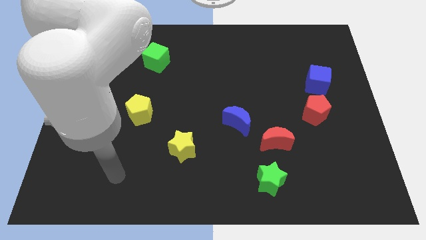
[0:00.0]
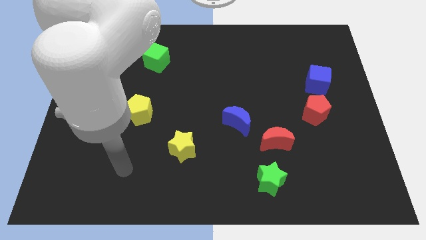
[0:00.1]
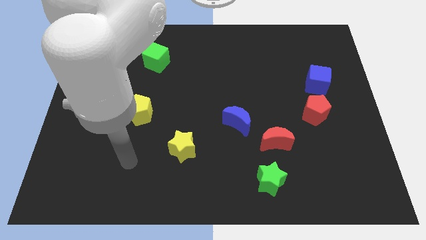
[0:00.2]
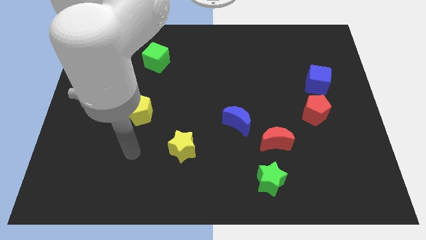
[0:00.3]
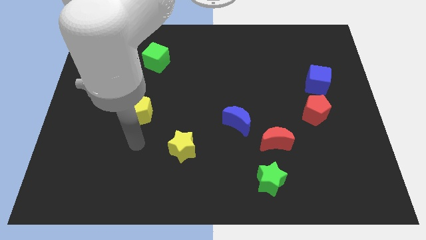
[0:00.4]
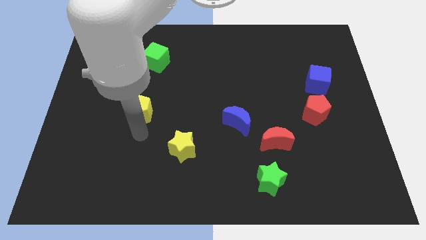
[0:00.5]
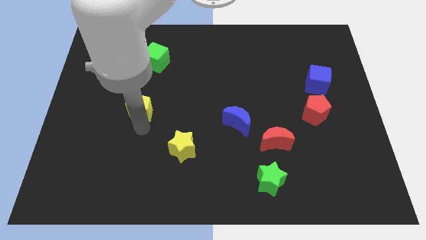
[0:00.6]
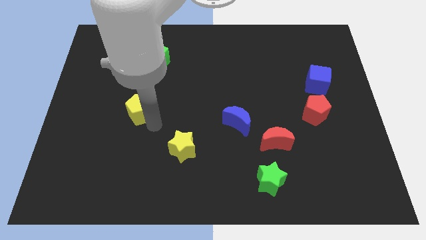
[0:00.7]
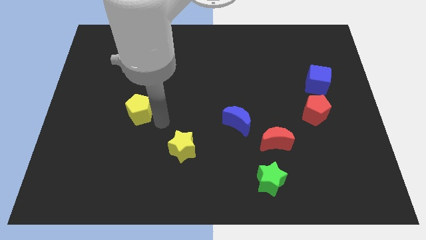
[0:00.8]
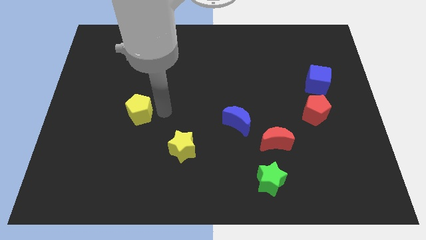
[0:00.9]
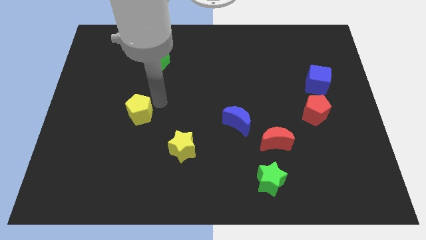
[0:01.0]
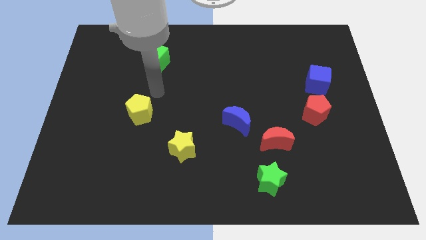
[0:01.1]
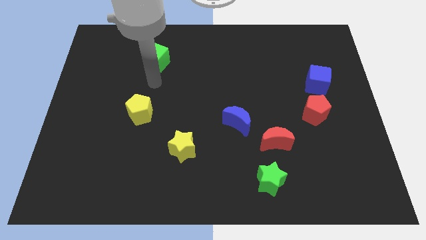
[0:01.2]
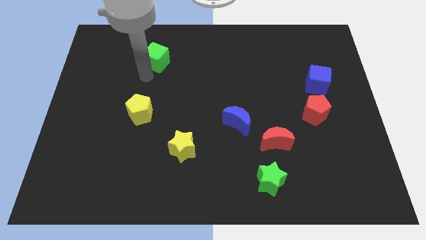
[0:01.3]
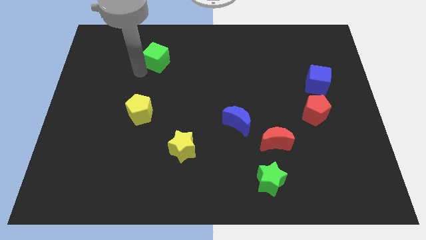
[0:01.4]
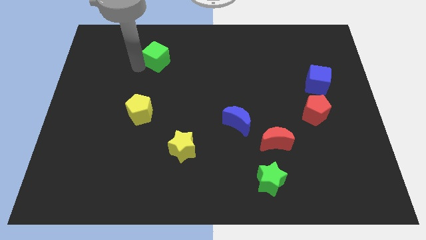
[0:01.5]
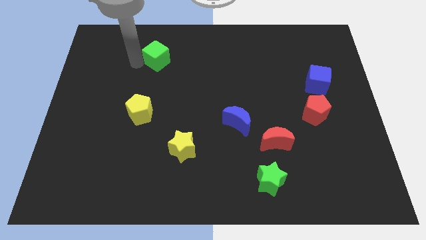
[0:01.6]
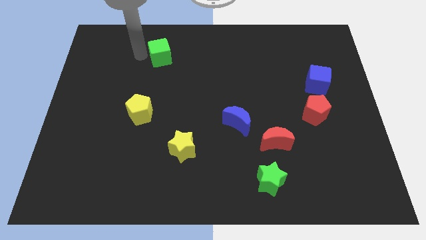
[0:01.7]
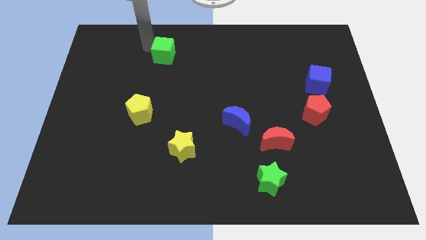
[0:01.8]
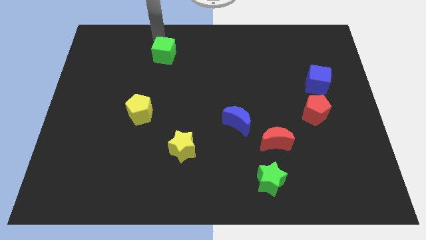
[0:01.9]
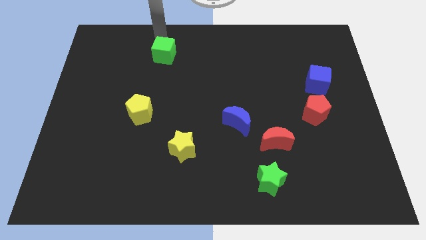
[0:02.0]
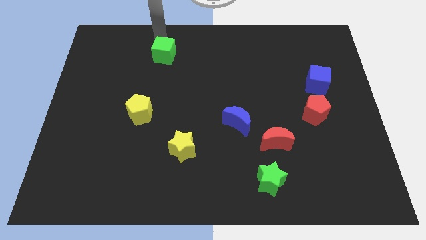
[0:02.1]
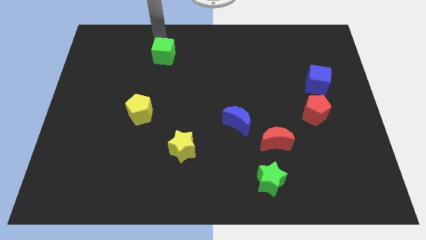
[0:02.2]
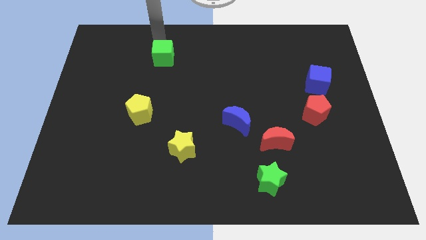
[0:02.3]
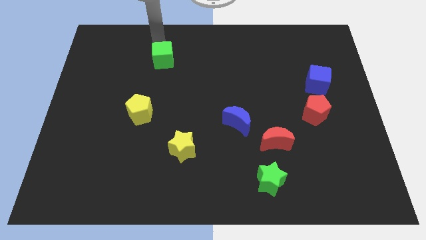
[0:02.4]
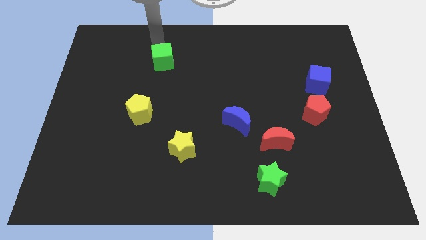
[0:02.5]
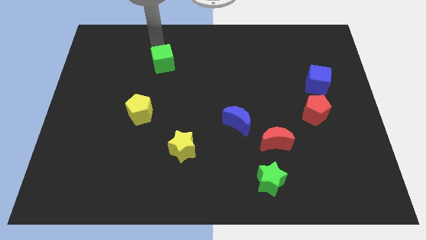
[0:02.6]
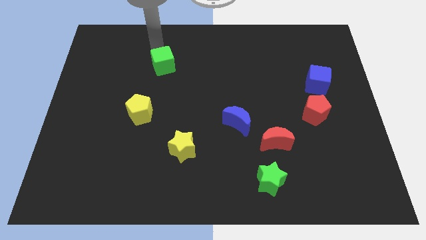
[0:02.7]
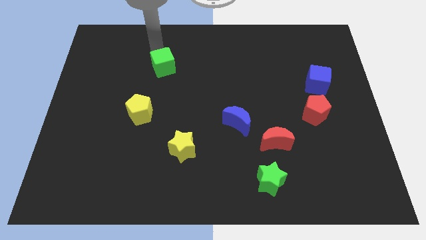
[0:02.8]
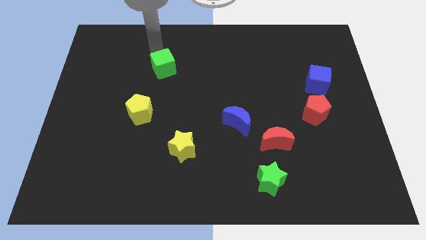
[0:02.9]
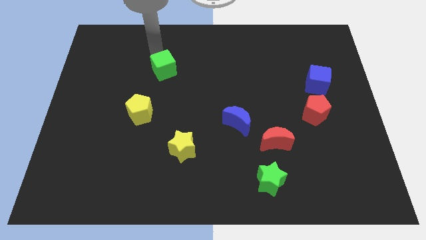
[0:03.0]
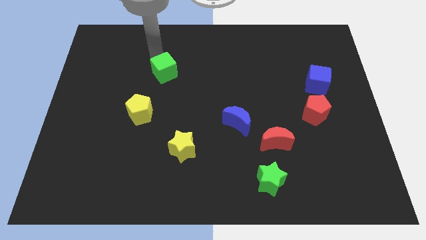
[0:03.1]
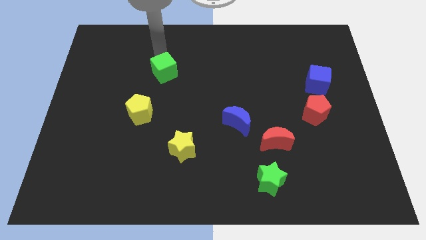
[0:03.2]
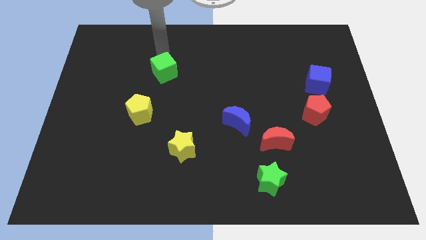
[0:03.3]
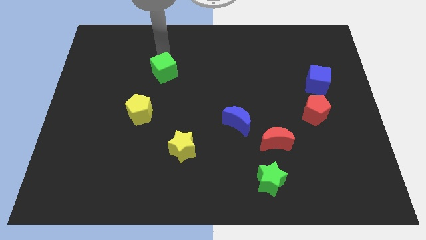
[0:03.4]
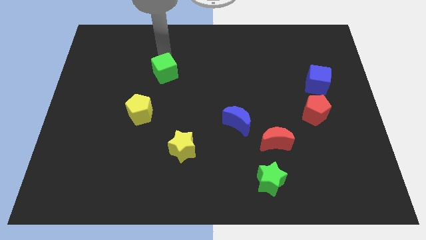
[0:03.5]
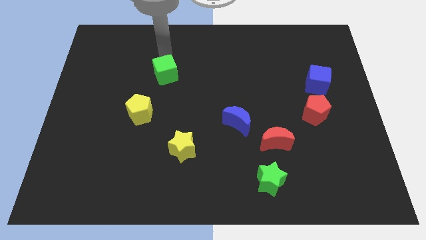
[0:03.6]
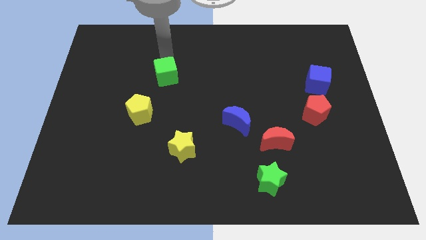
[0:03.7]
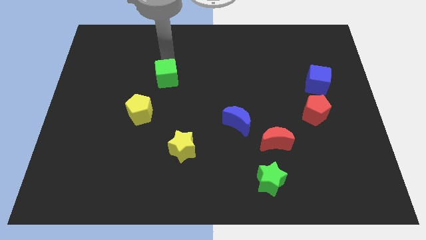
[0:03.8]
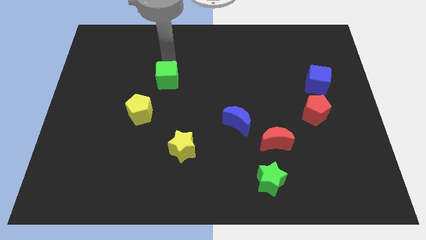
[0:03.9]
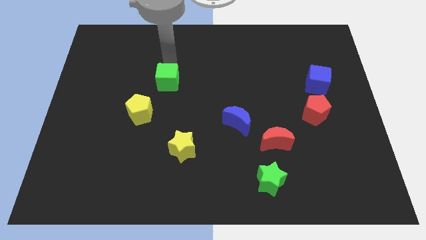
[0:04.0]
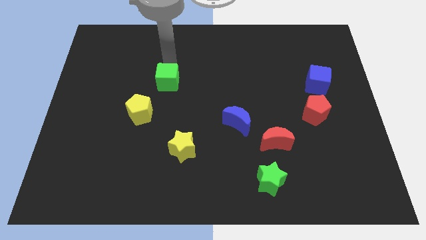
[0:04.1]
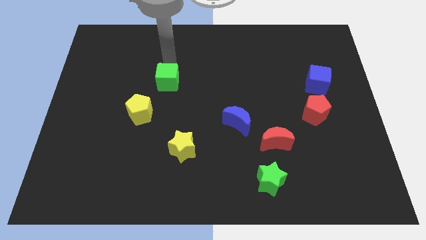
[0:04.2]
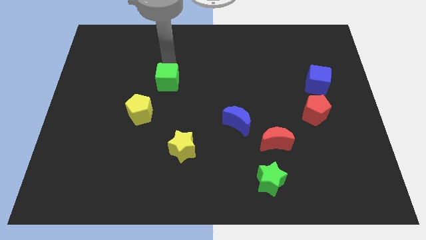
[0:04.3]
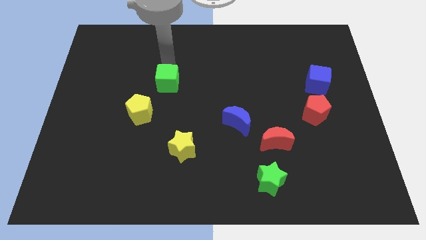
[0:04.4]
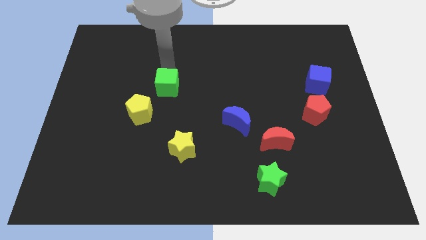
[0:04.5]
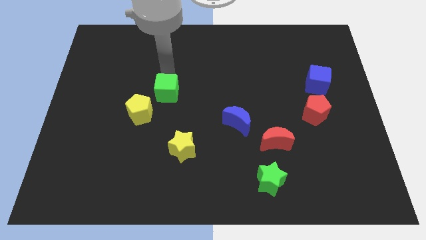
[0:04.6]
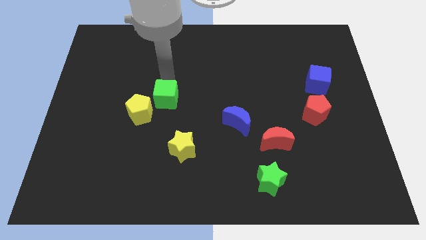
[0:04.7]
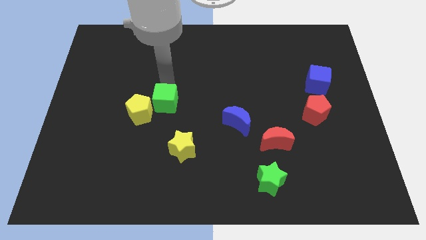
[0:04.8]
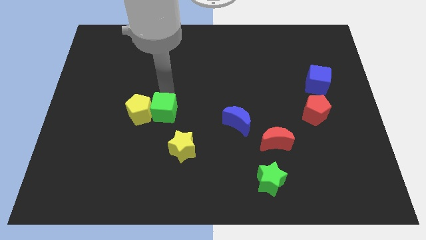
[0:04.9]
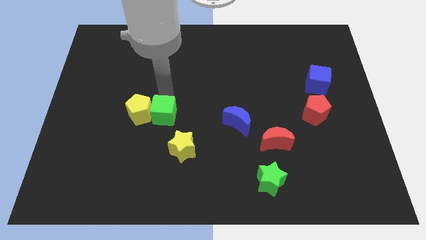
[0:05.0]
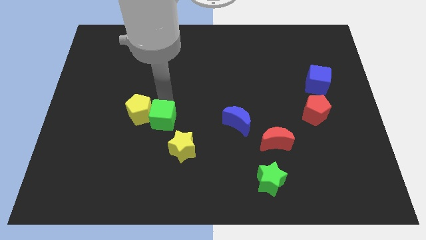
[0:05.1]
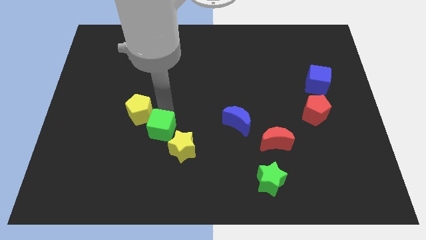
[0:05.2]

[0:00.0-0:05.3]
slide the green cube down

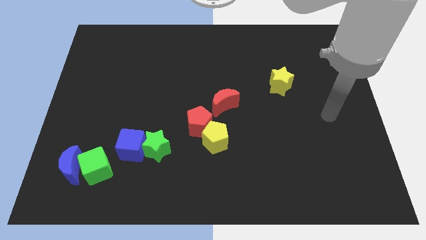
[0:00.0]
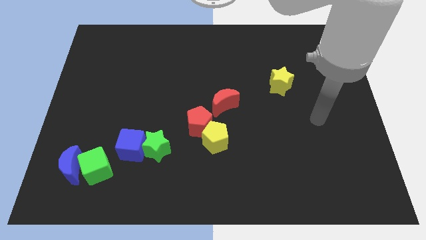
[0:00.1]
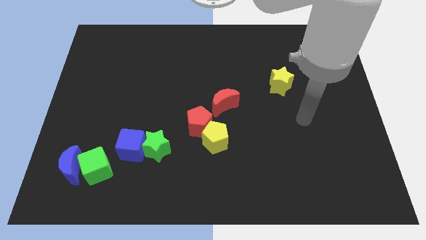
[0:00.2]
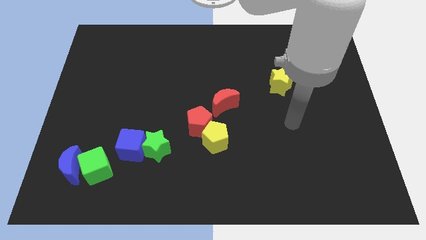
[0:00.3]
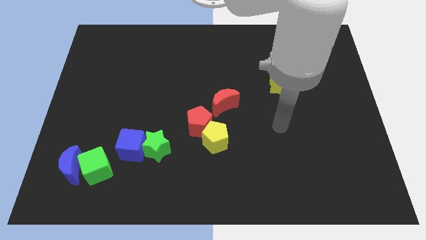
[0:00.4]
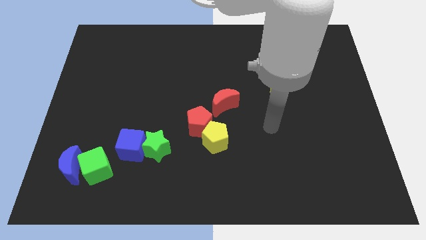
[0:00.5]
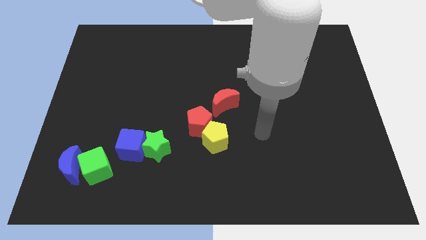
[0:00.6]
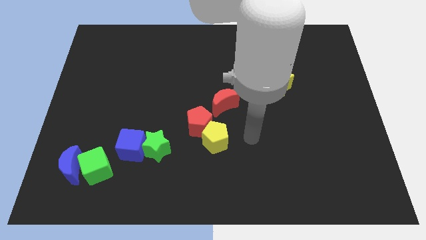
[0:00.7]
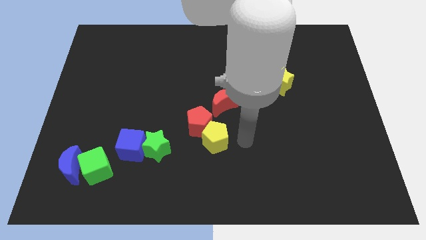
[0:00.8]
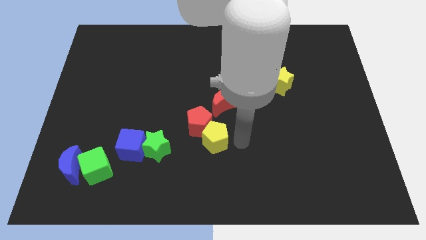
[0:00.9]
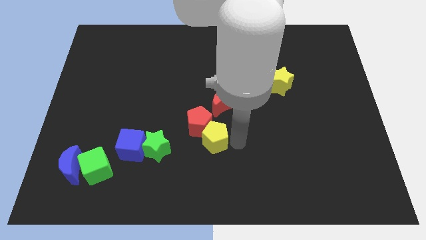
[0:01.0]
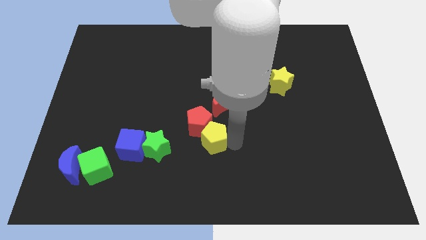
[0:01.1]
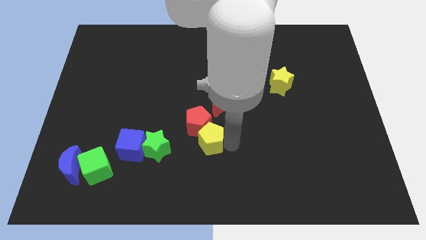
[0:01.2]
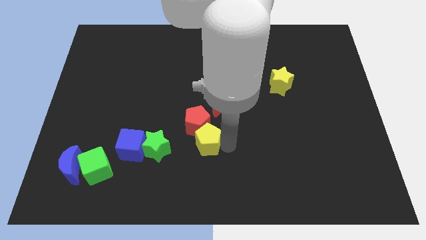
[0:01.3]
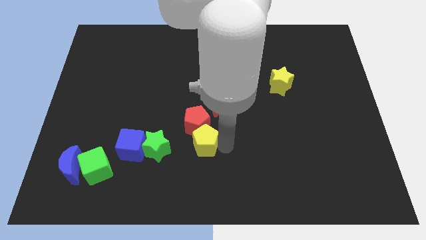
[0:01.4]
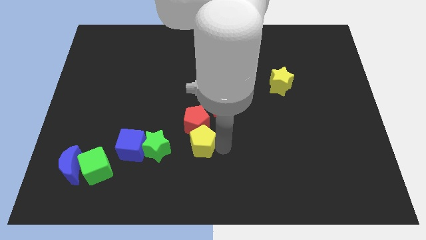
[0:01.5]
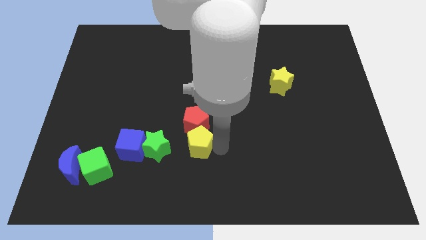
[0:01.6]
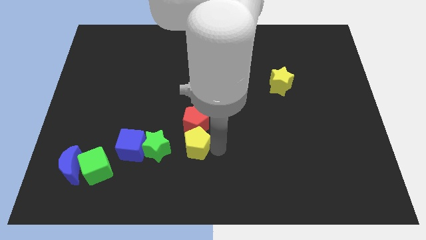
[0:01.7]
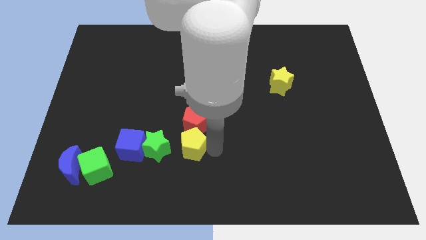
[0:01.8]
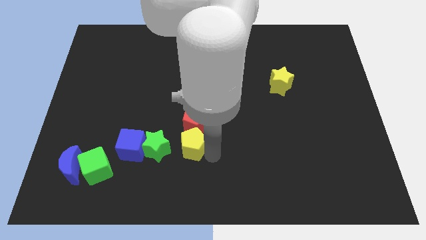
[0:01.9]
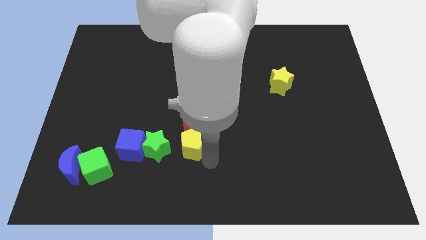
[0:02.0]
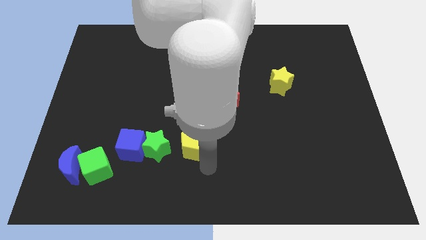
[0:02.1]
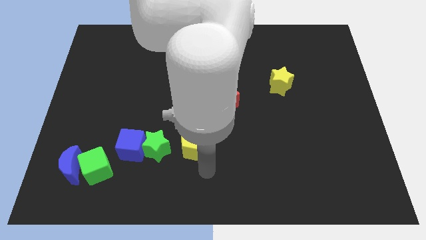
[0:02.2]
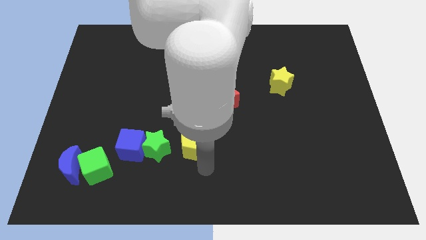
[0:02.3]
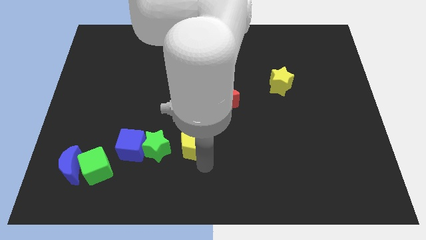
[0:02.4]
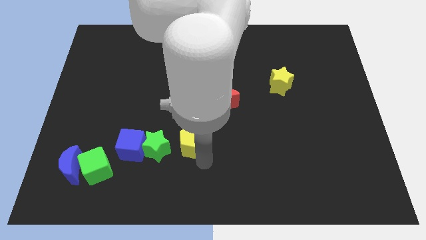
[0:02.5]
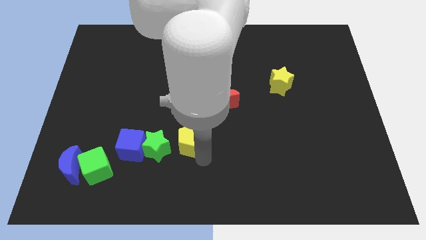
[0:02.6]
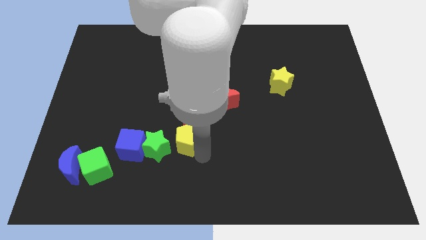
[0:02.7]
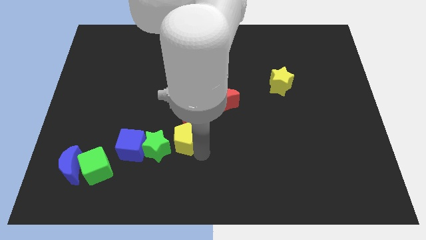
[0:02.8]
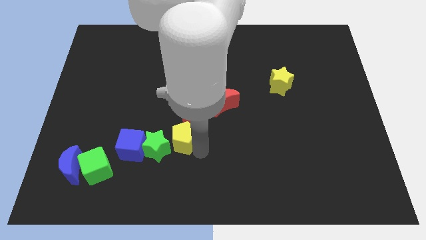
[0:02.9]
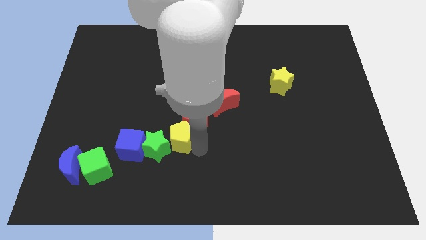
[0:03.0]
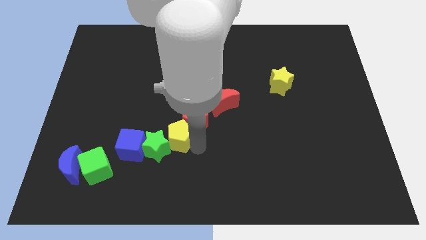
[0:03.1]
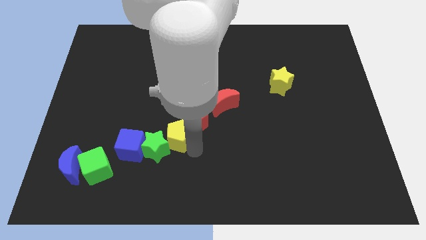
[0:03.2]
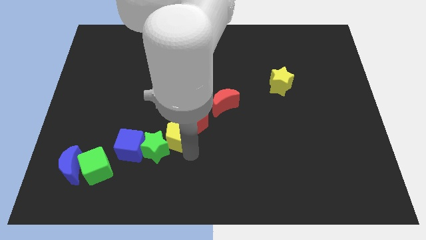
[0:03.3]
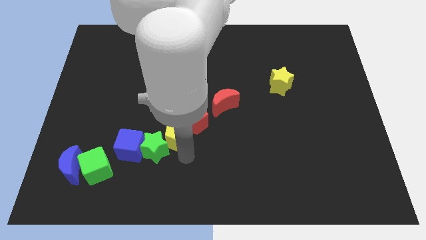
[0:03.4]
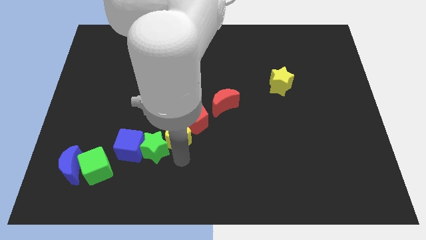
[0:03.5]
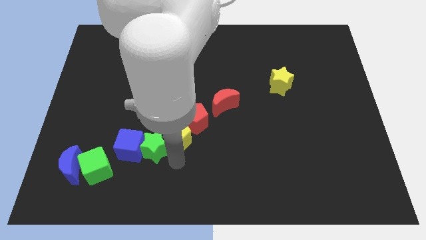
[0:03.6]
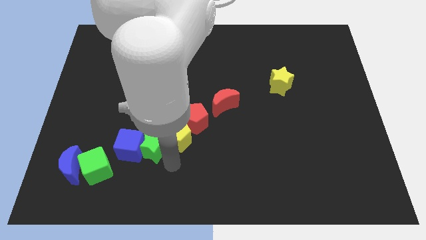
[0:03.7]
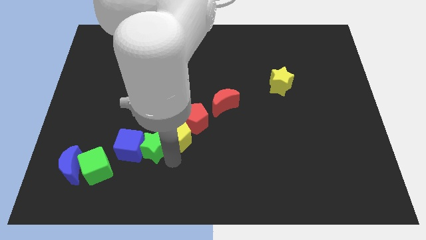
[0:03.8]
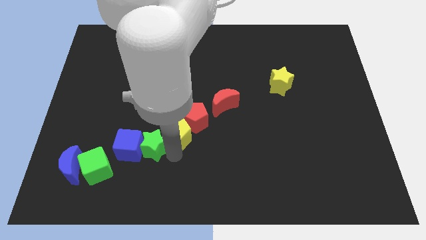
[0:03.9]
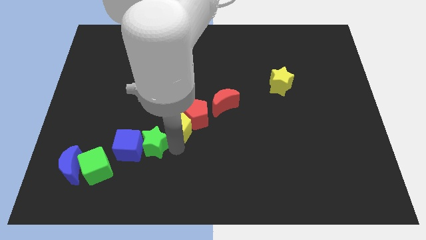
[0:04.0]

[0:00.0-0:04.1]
slightly push the yellow pentagon up and left
